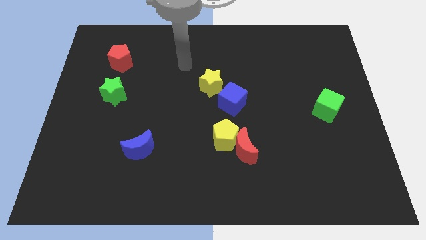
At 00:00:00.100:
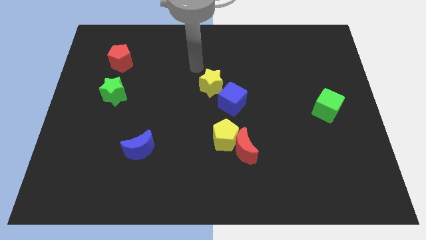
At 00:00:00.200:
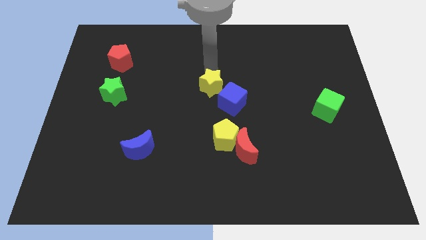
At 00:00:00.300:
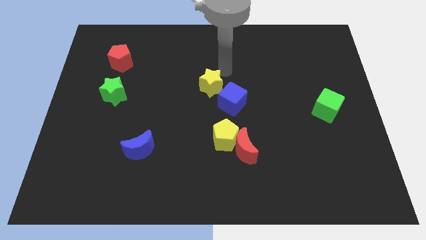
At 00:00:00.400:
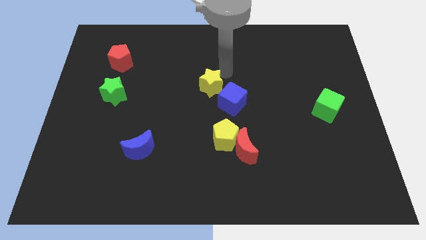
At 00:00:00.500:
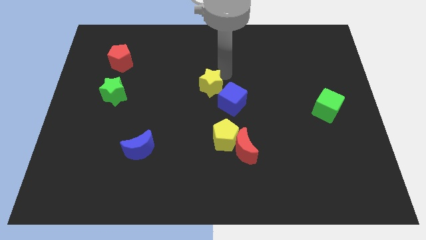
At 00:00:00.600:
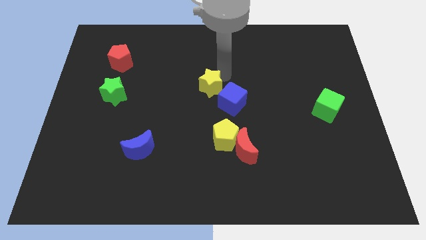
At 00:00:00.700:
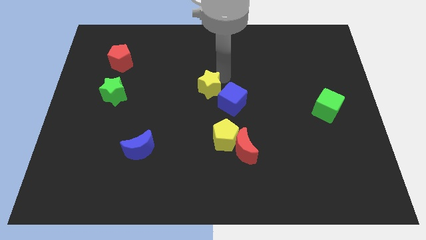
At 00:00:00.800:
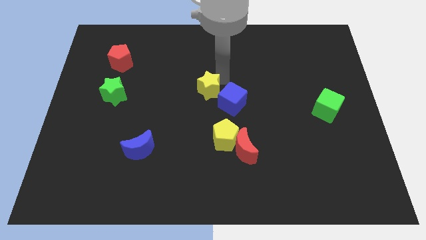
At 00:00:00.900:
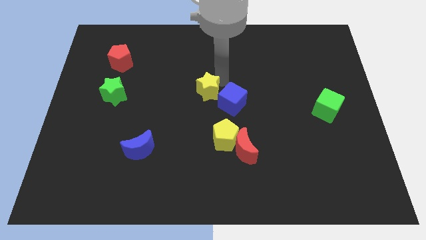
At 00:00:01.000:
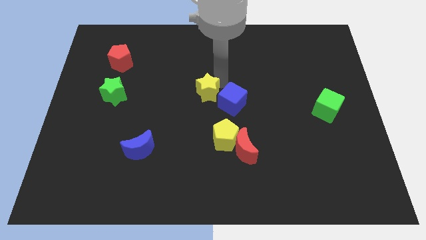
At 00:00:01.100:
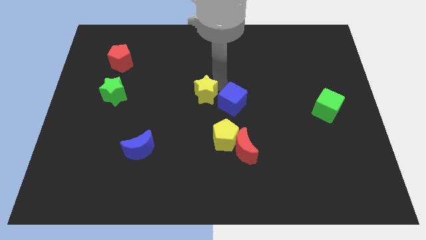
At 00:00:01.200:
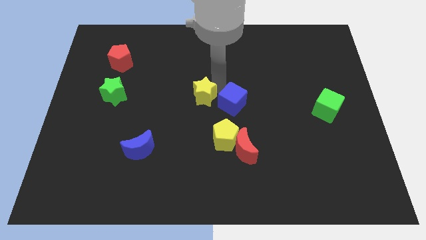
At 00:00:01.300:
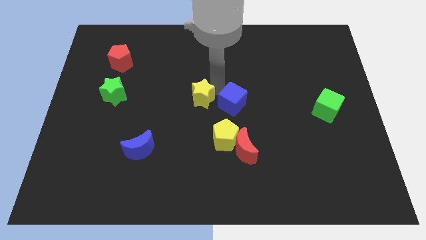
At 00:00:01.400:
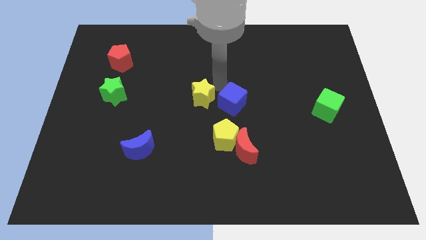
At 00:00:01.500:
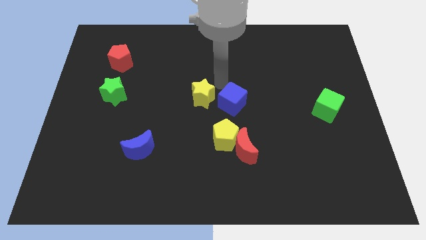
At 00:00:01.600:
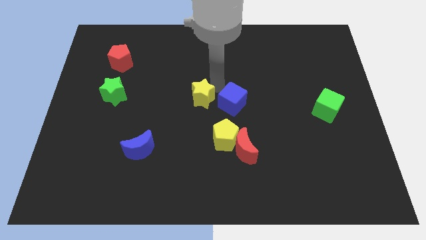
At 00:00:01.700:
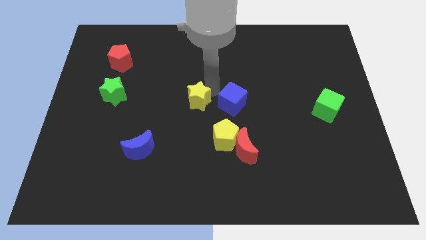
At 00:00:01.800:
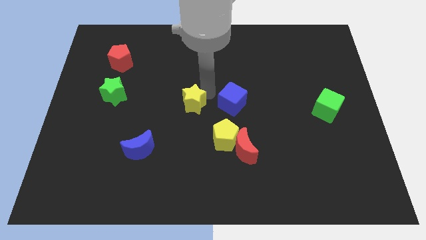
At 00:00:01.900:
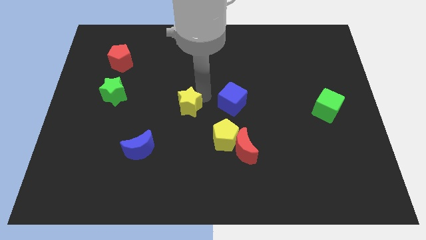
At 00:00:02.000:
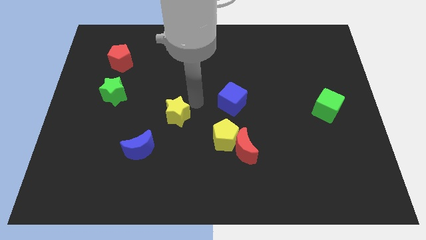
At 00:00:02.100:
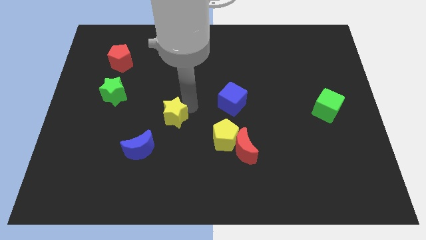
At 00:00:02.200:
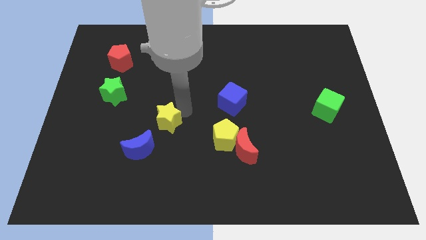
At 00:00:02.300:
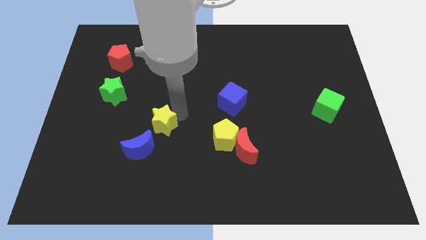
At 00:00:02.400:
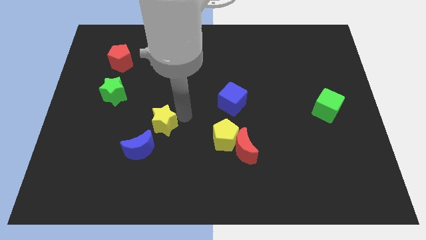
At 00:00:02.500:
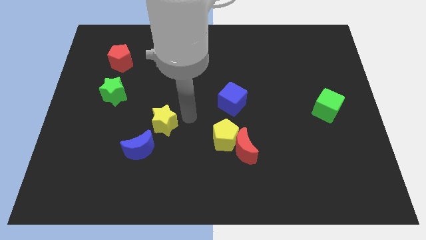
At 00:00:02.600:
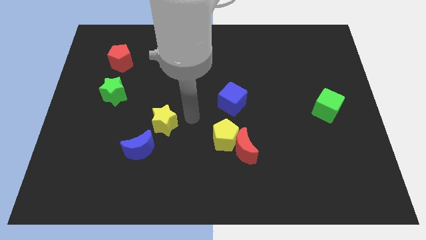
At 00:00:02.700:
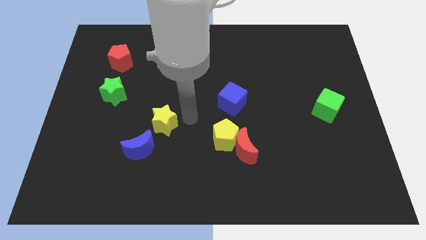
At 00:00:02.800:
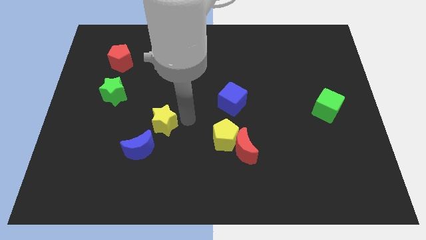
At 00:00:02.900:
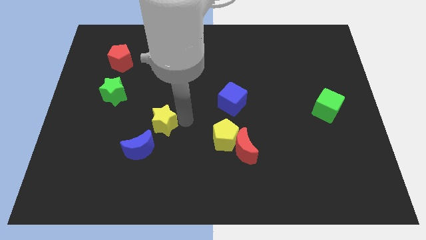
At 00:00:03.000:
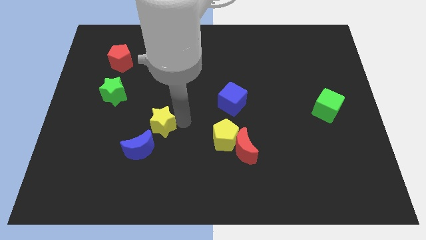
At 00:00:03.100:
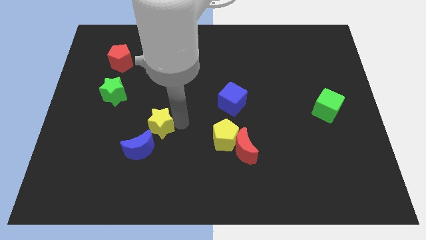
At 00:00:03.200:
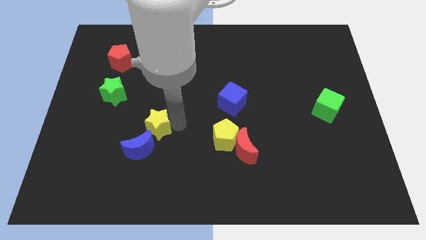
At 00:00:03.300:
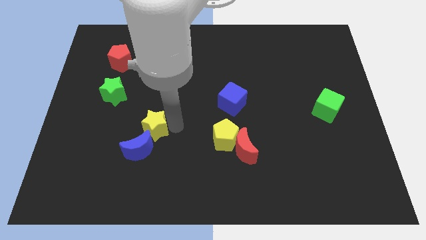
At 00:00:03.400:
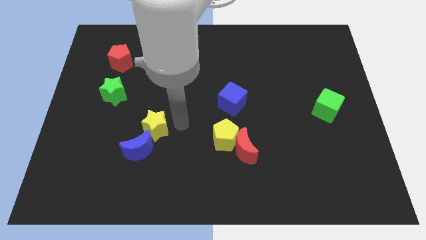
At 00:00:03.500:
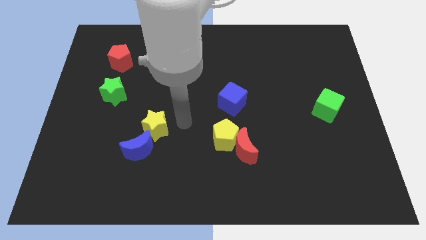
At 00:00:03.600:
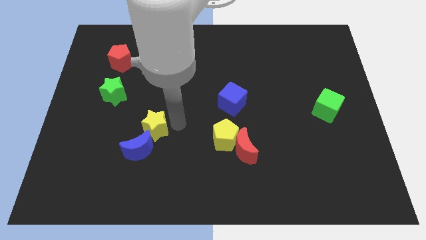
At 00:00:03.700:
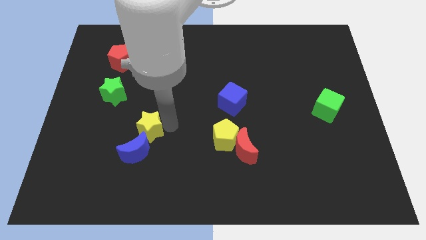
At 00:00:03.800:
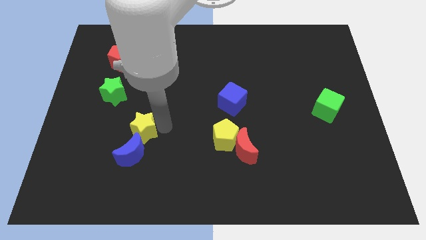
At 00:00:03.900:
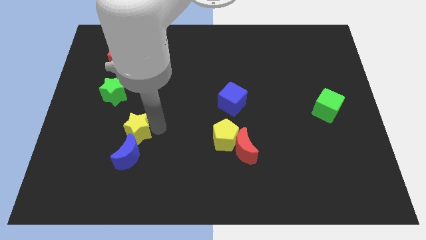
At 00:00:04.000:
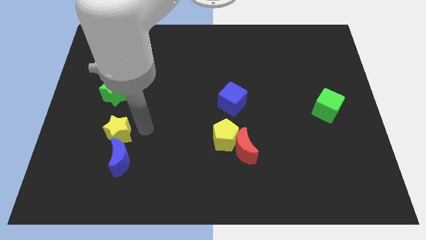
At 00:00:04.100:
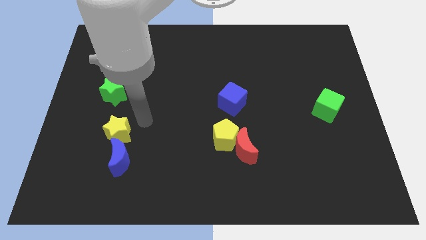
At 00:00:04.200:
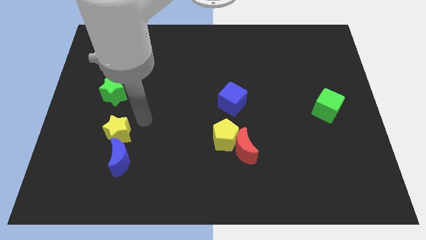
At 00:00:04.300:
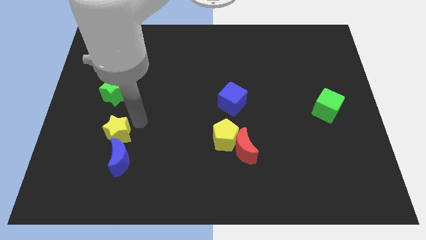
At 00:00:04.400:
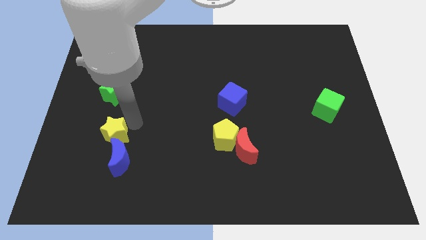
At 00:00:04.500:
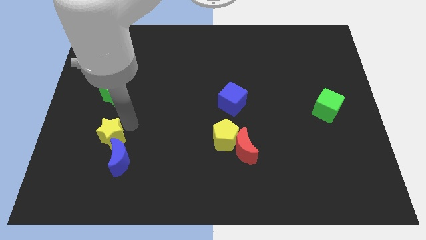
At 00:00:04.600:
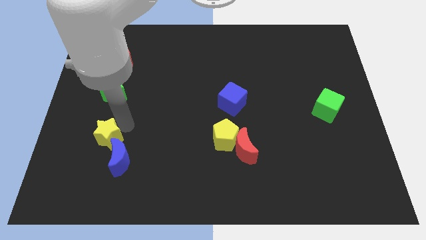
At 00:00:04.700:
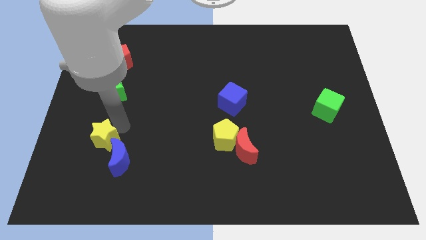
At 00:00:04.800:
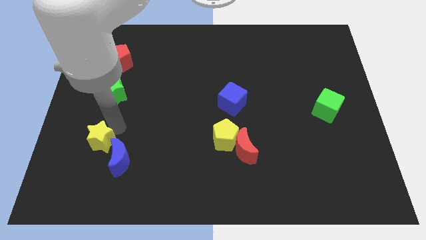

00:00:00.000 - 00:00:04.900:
move the yellow star left of the blue moon

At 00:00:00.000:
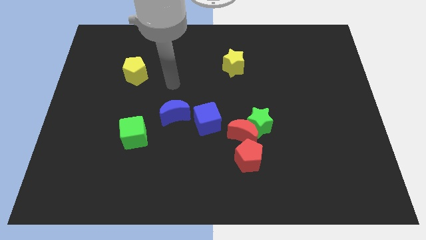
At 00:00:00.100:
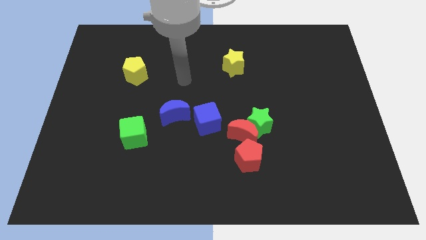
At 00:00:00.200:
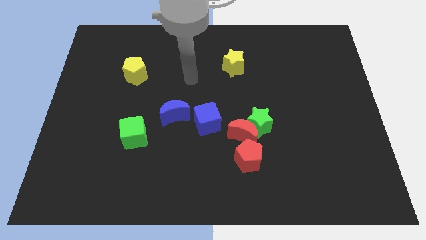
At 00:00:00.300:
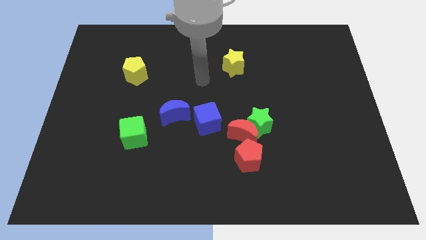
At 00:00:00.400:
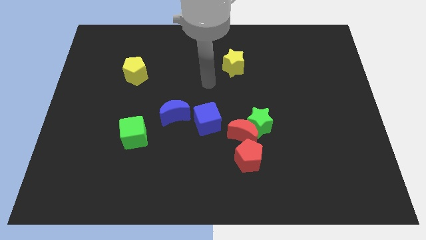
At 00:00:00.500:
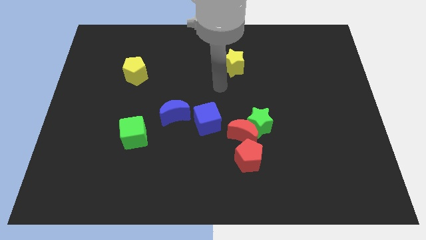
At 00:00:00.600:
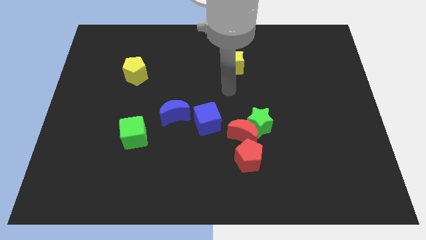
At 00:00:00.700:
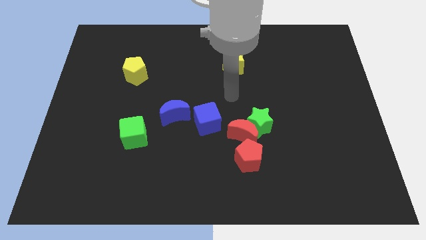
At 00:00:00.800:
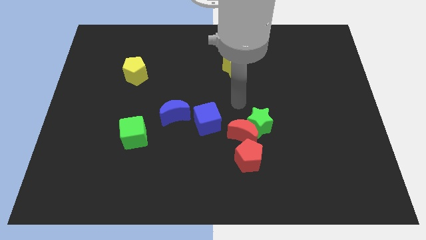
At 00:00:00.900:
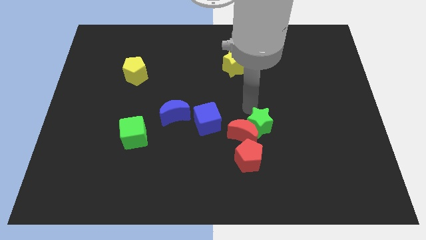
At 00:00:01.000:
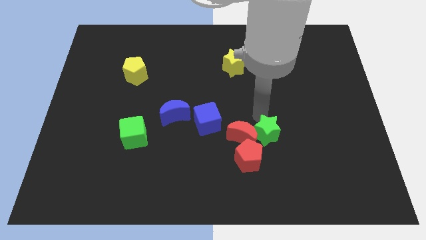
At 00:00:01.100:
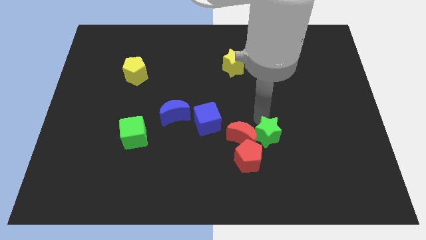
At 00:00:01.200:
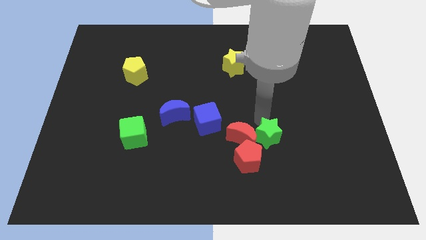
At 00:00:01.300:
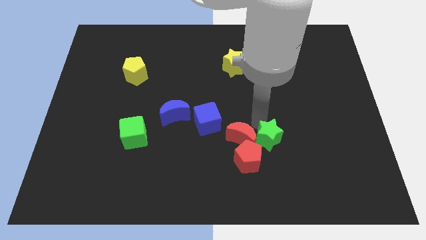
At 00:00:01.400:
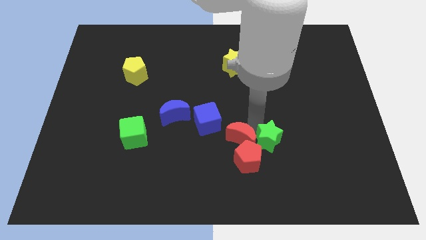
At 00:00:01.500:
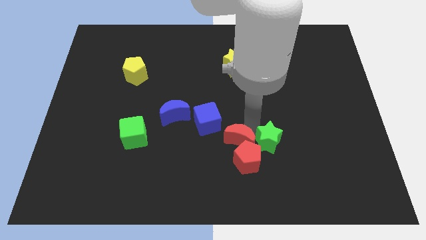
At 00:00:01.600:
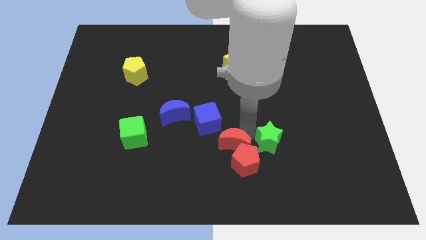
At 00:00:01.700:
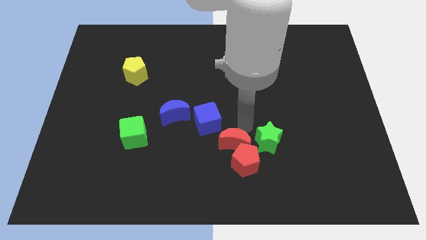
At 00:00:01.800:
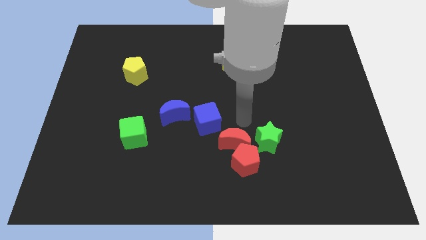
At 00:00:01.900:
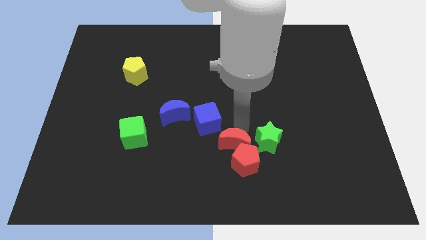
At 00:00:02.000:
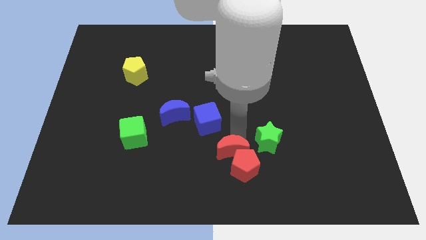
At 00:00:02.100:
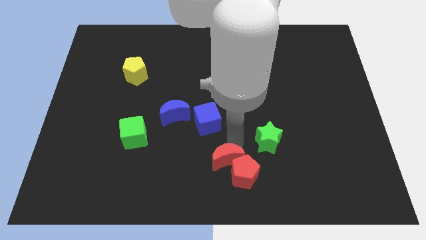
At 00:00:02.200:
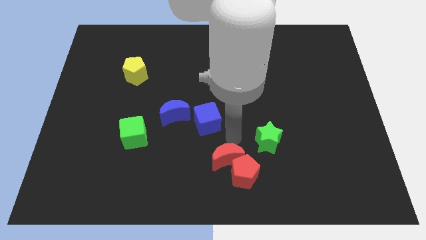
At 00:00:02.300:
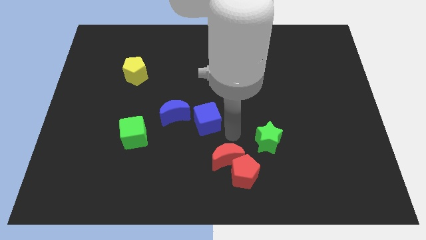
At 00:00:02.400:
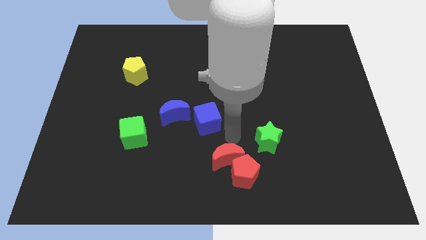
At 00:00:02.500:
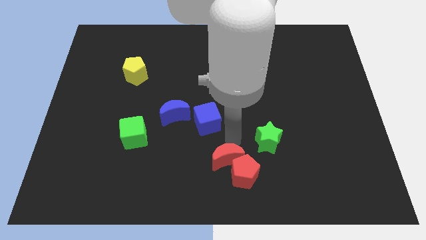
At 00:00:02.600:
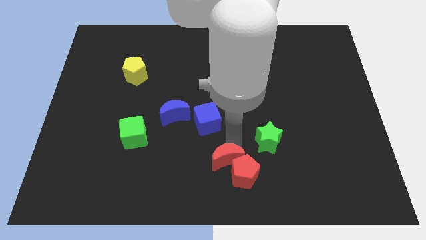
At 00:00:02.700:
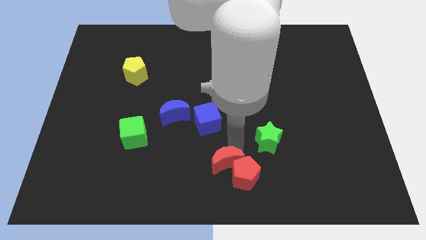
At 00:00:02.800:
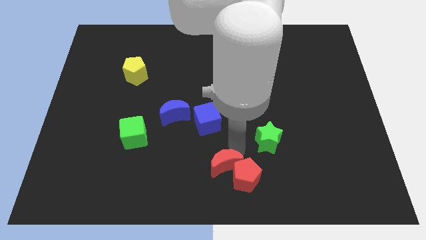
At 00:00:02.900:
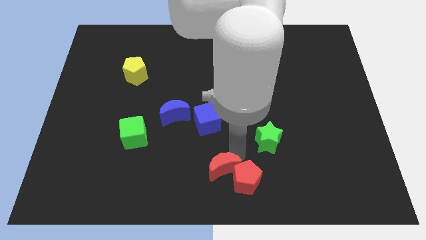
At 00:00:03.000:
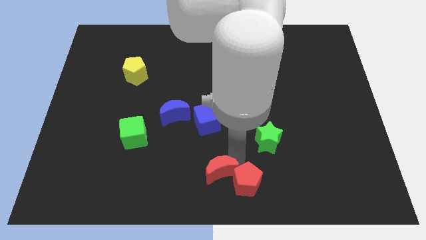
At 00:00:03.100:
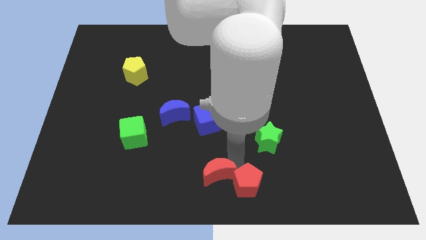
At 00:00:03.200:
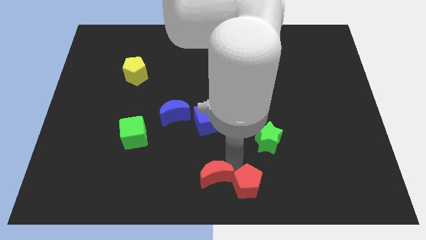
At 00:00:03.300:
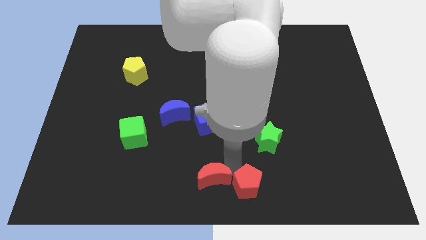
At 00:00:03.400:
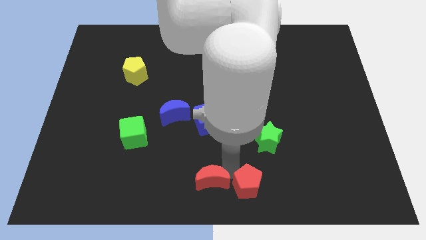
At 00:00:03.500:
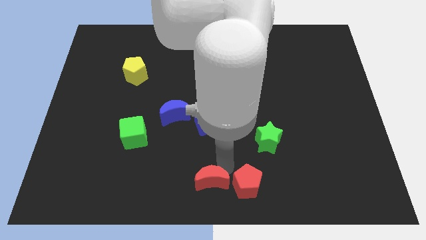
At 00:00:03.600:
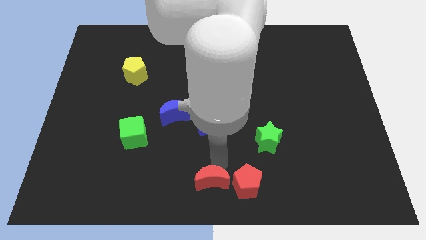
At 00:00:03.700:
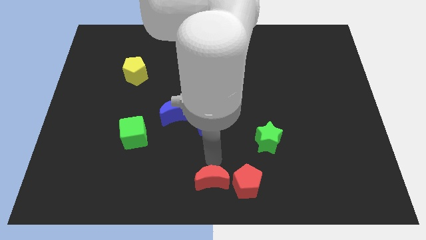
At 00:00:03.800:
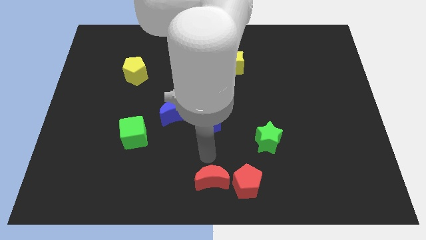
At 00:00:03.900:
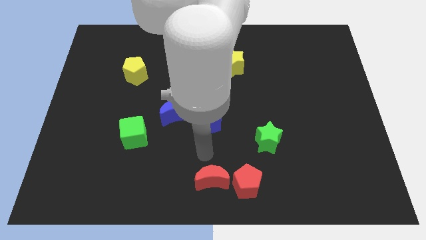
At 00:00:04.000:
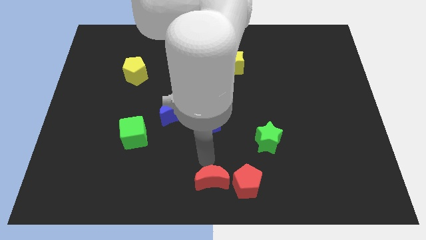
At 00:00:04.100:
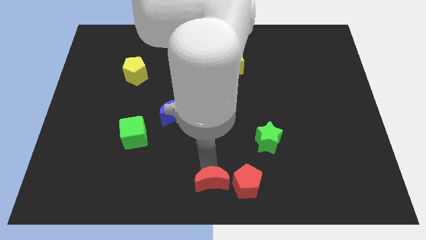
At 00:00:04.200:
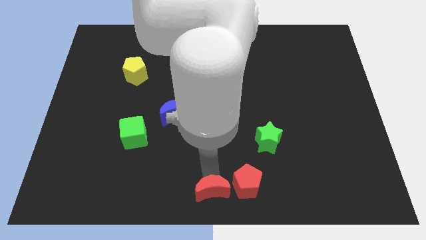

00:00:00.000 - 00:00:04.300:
slide the red moon diagonally down and to the left of the red pentagon
